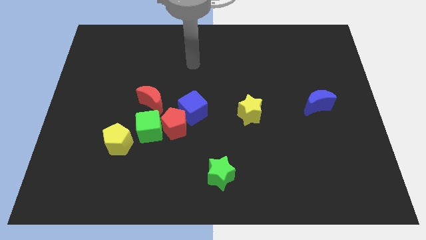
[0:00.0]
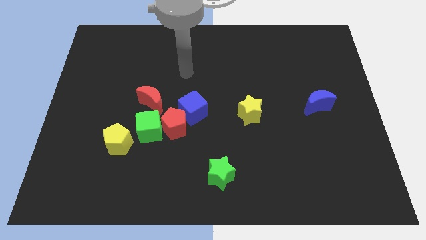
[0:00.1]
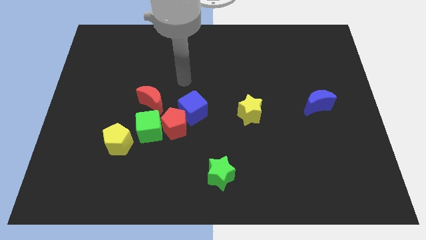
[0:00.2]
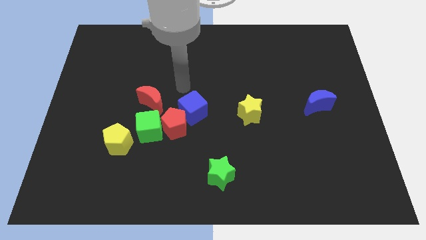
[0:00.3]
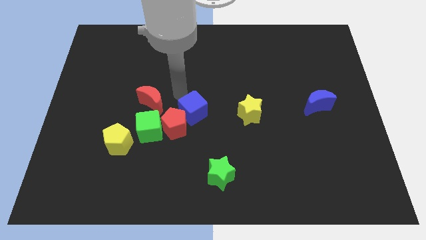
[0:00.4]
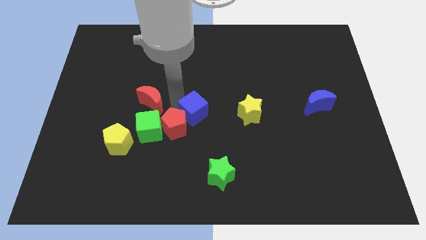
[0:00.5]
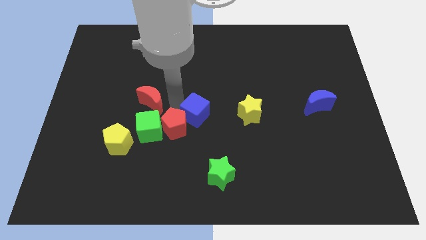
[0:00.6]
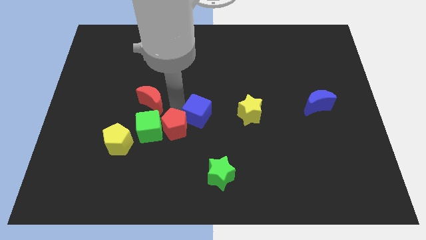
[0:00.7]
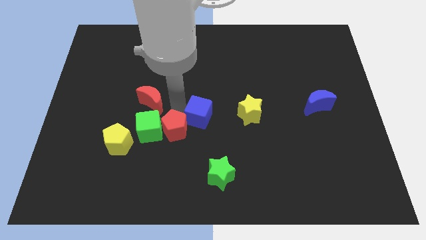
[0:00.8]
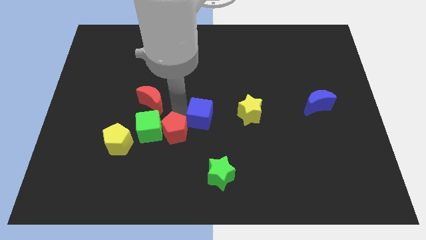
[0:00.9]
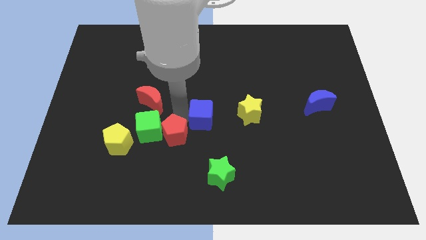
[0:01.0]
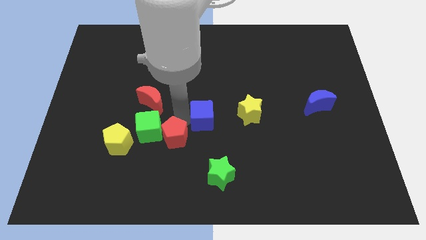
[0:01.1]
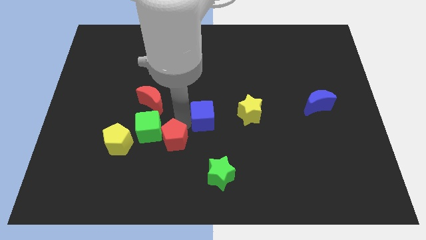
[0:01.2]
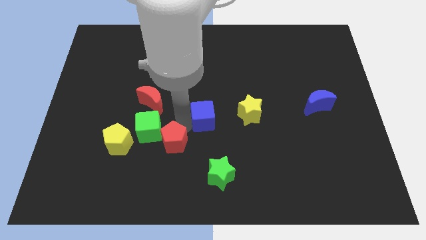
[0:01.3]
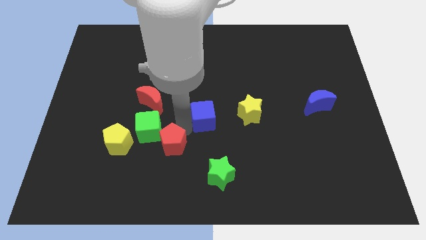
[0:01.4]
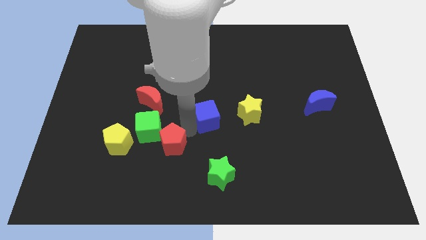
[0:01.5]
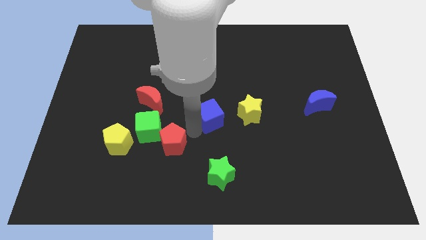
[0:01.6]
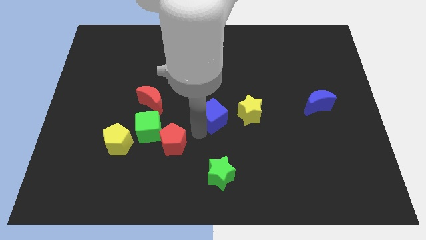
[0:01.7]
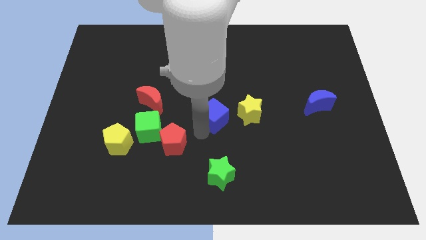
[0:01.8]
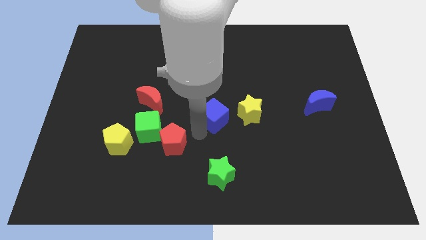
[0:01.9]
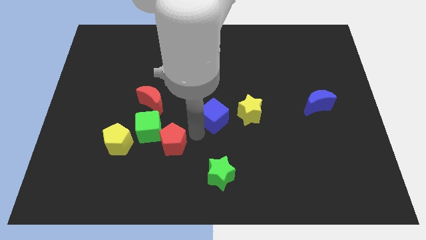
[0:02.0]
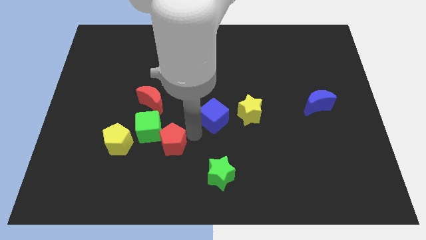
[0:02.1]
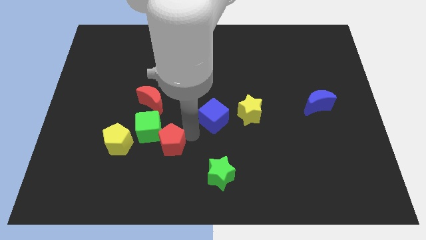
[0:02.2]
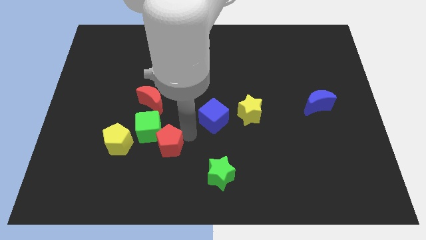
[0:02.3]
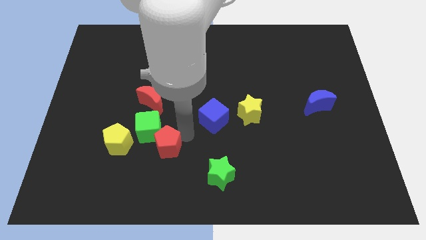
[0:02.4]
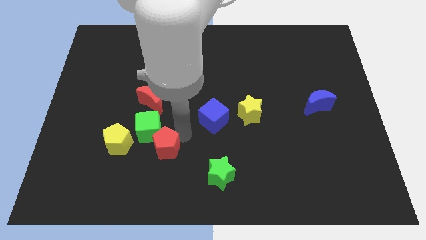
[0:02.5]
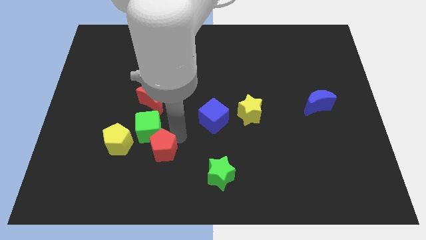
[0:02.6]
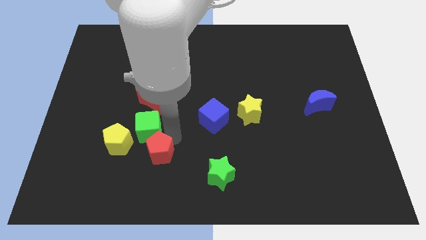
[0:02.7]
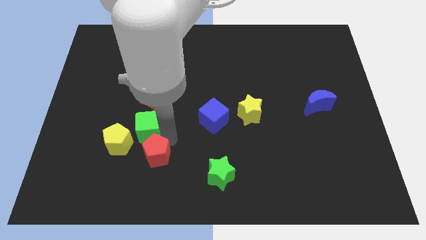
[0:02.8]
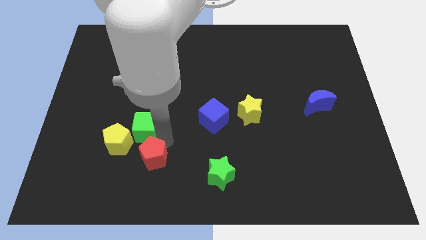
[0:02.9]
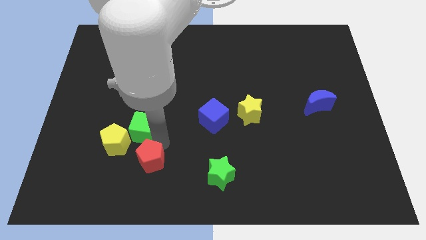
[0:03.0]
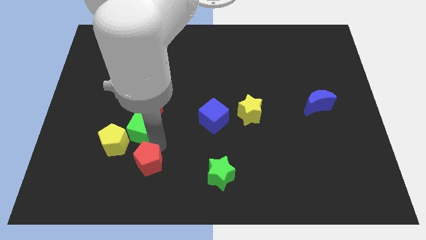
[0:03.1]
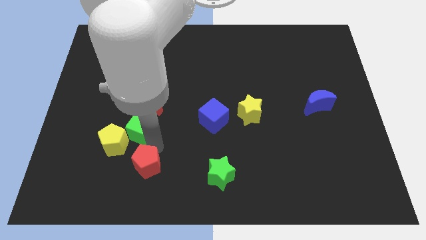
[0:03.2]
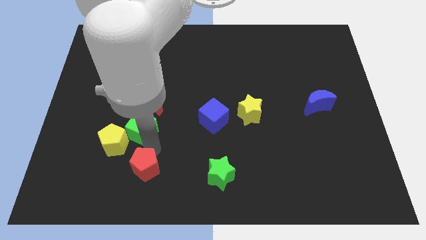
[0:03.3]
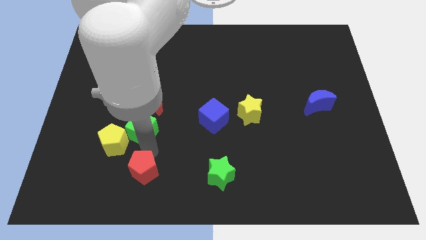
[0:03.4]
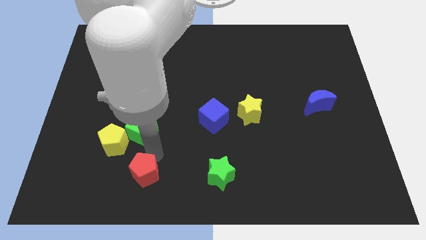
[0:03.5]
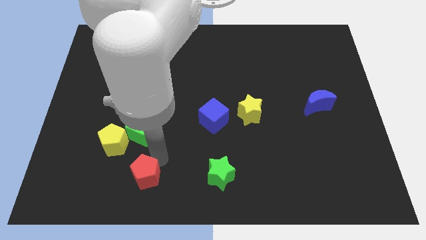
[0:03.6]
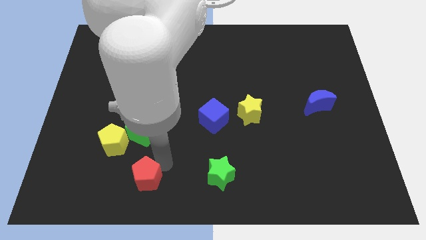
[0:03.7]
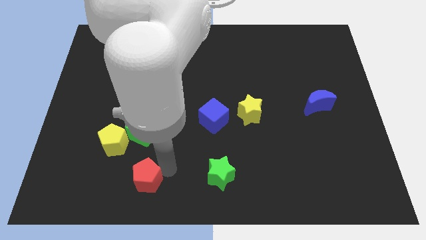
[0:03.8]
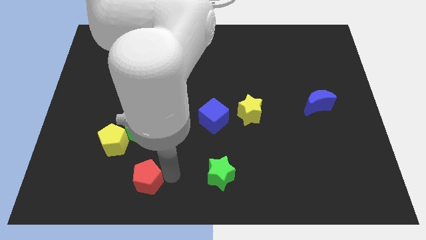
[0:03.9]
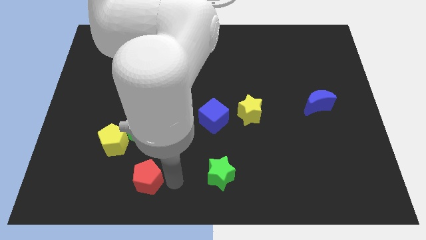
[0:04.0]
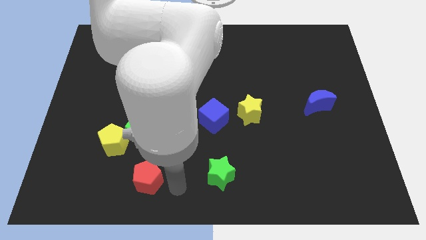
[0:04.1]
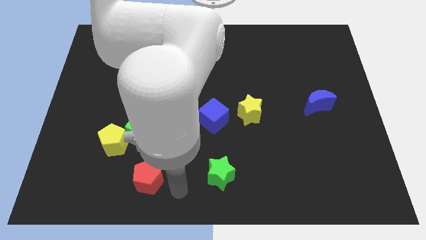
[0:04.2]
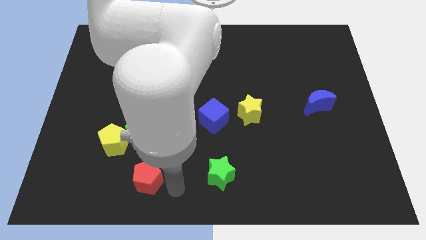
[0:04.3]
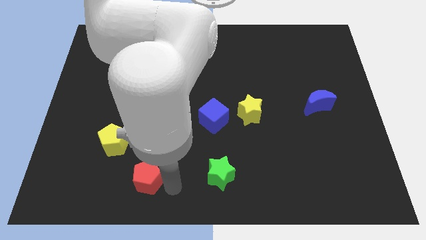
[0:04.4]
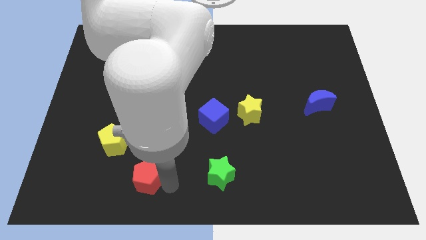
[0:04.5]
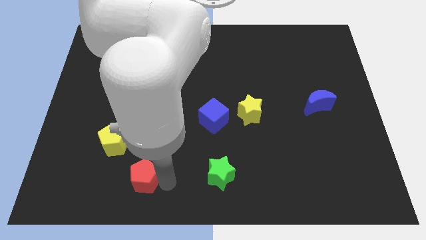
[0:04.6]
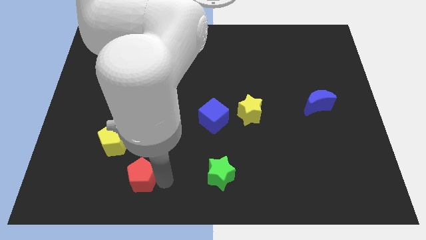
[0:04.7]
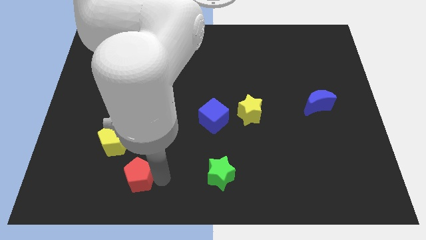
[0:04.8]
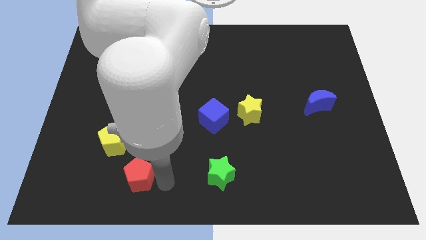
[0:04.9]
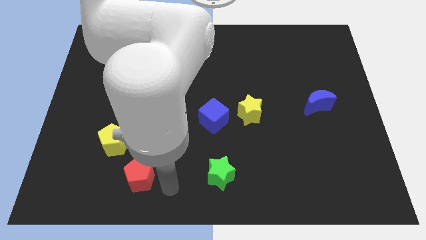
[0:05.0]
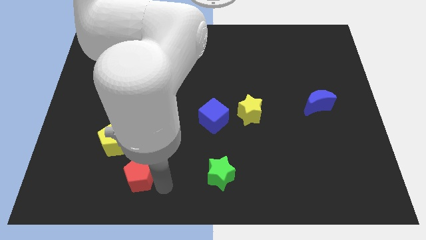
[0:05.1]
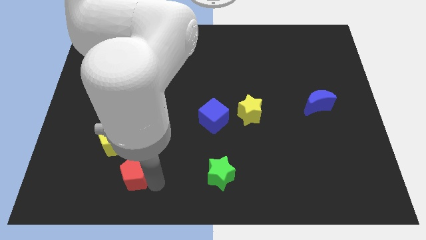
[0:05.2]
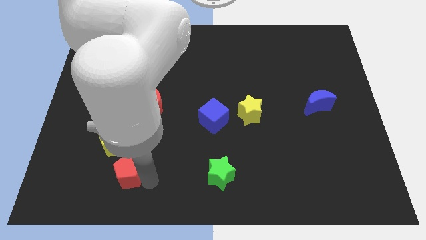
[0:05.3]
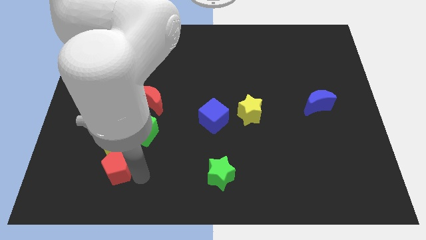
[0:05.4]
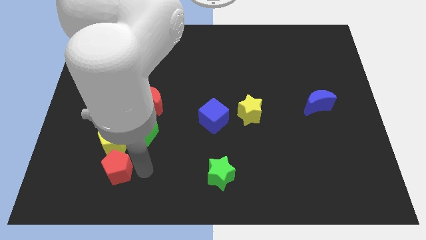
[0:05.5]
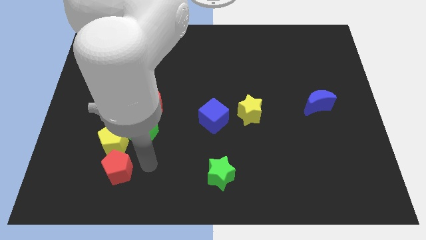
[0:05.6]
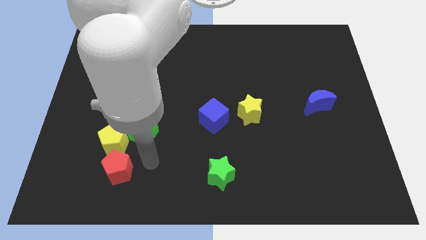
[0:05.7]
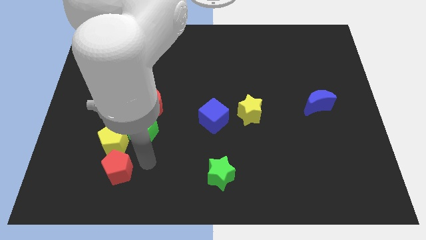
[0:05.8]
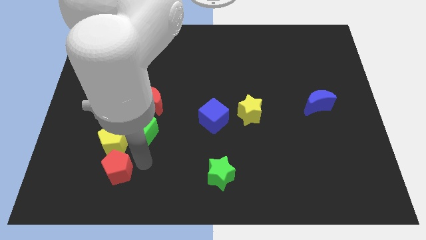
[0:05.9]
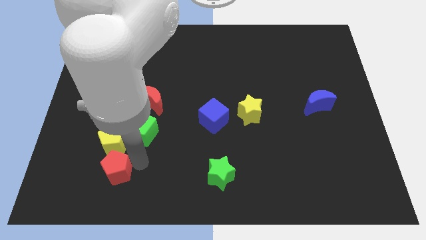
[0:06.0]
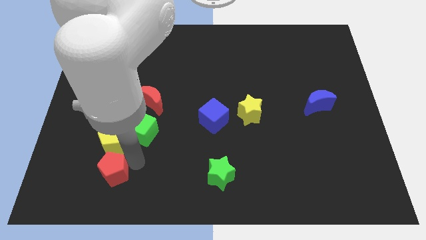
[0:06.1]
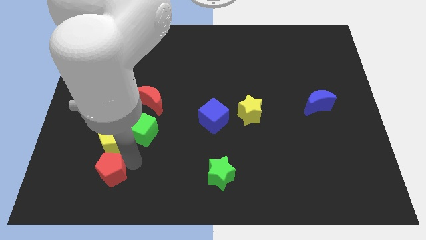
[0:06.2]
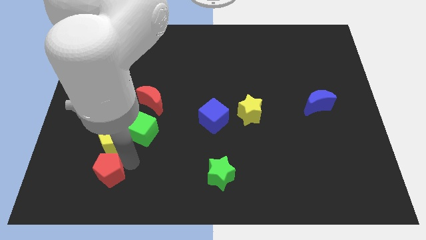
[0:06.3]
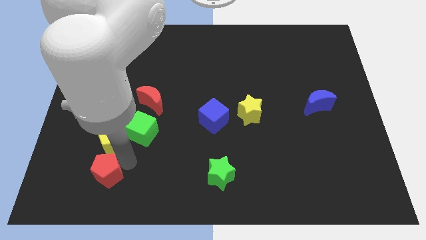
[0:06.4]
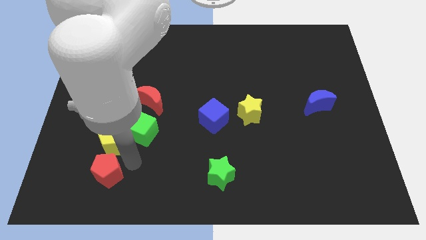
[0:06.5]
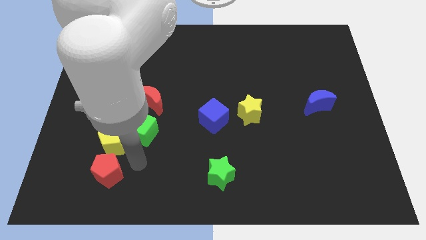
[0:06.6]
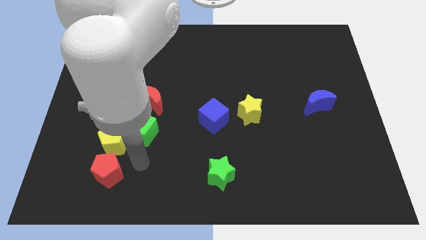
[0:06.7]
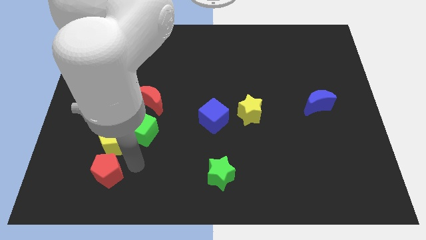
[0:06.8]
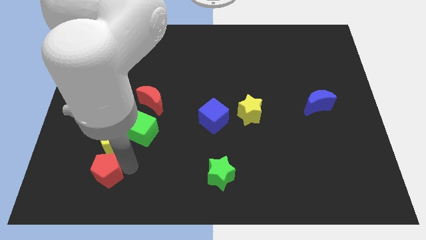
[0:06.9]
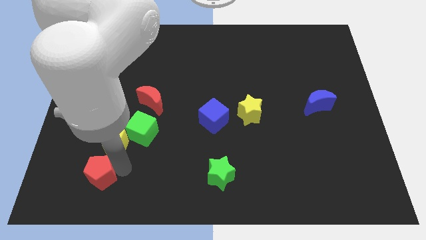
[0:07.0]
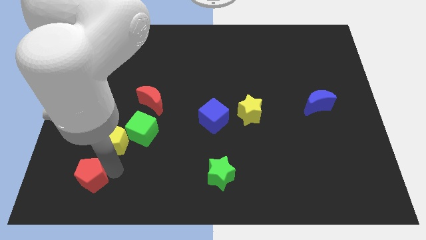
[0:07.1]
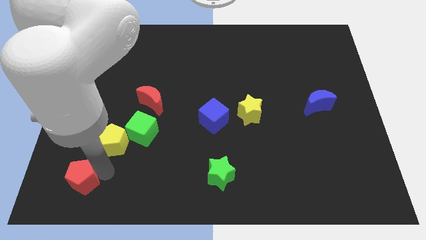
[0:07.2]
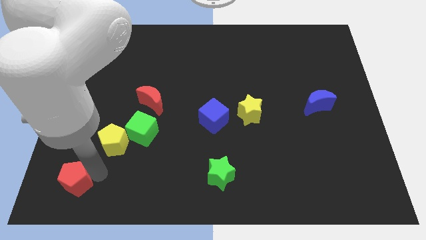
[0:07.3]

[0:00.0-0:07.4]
move the red pentagon to the lower left corner
